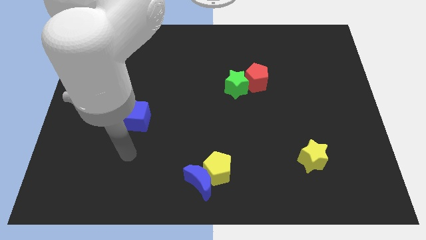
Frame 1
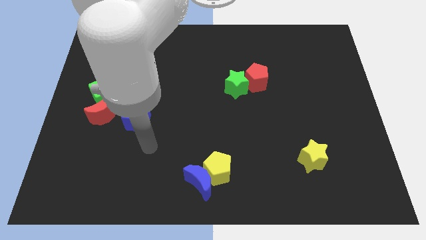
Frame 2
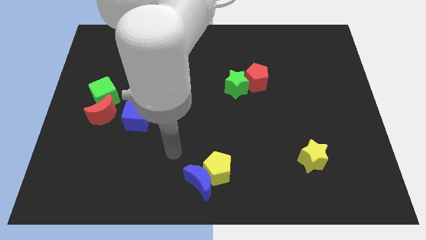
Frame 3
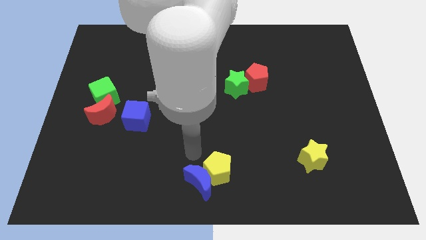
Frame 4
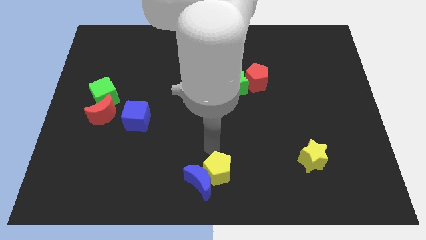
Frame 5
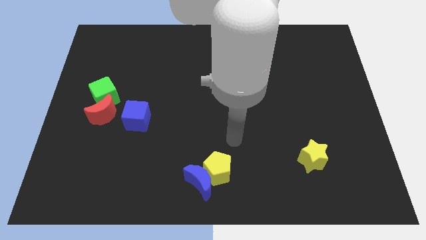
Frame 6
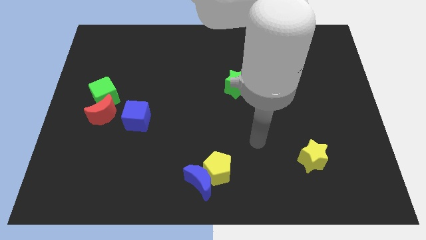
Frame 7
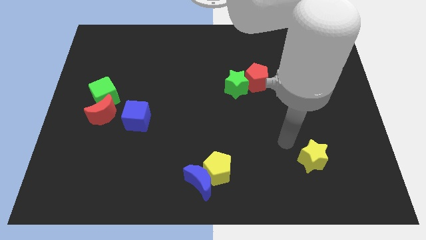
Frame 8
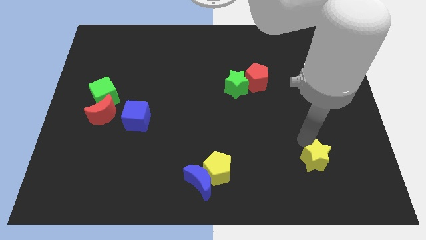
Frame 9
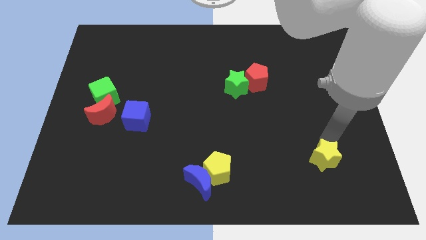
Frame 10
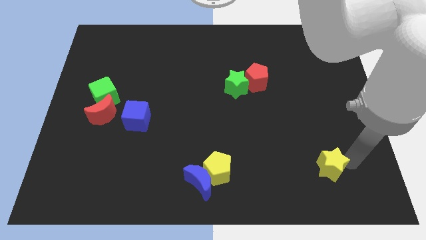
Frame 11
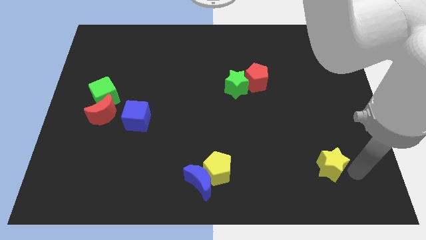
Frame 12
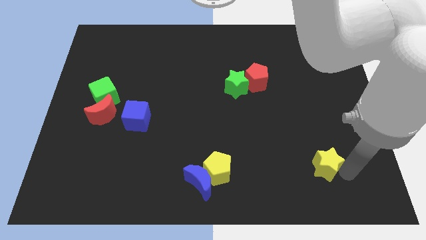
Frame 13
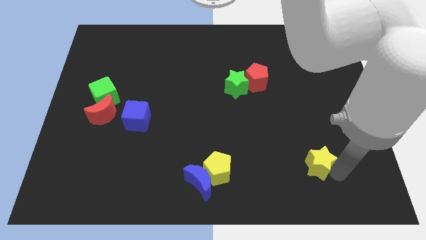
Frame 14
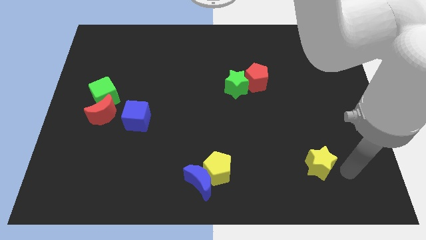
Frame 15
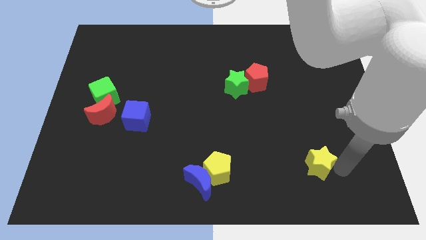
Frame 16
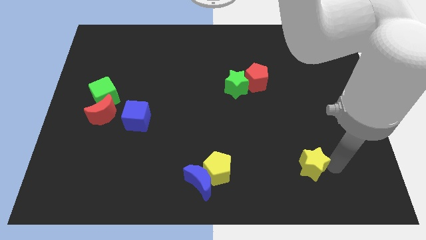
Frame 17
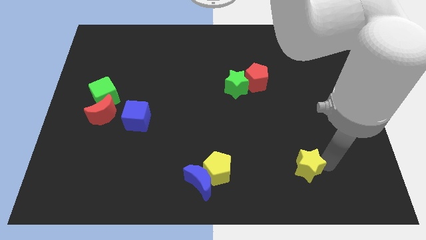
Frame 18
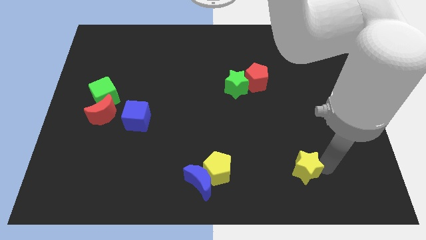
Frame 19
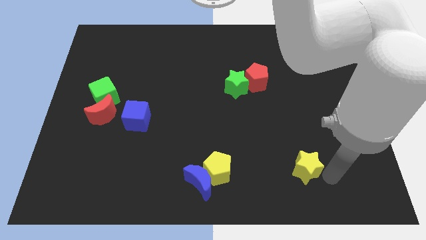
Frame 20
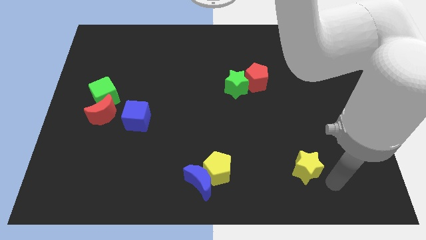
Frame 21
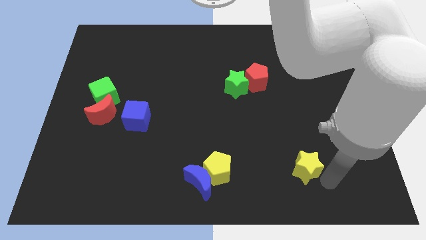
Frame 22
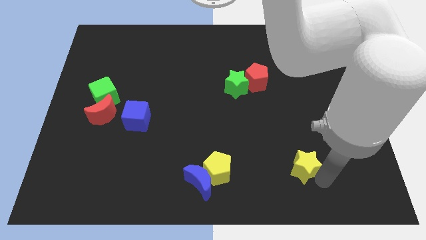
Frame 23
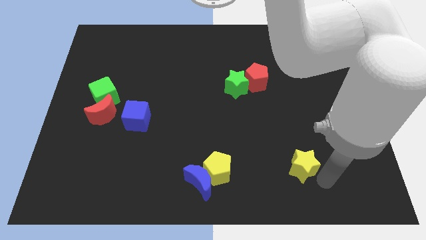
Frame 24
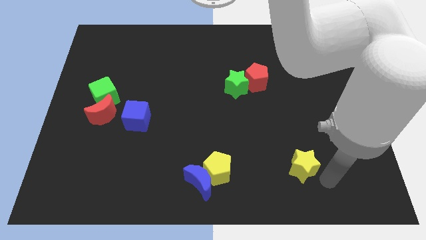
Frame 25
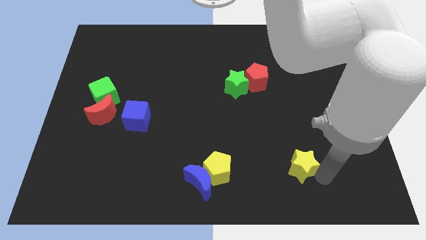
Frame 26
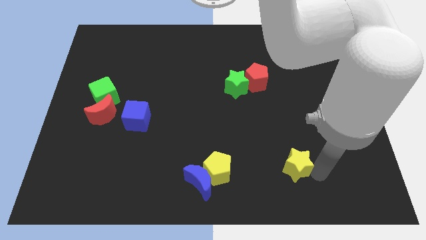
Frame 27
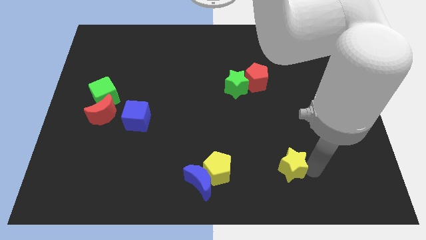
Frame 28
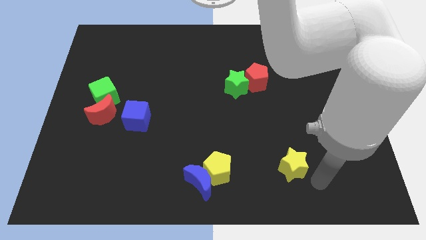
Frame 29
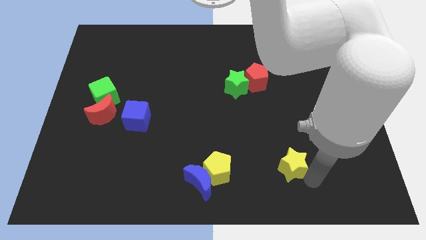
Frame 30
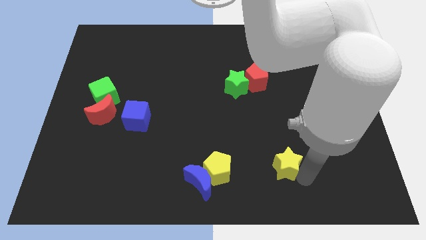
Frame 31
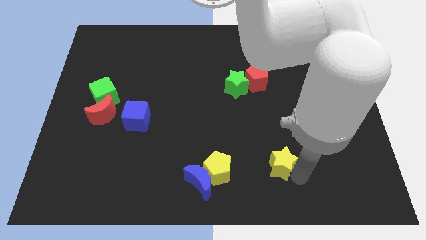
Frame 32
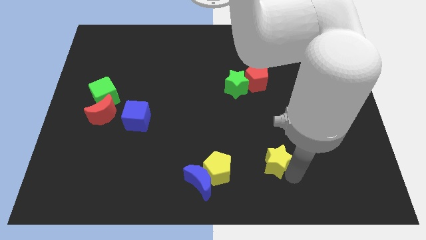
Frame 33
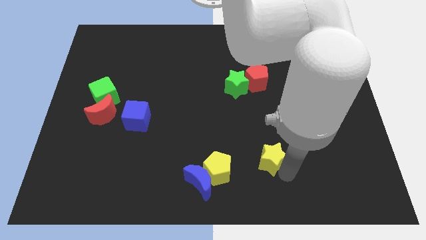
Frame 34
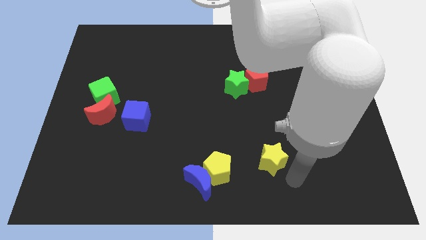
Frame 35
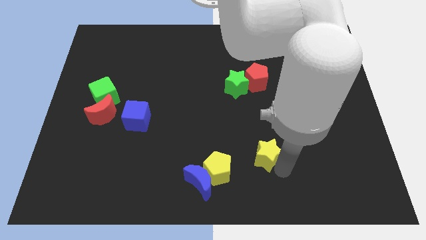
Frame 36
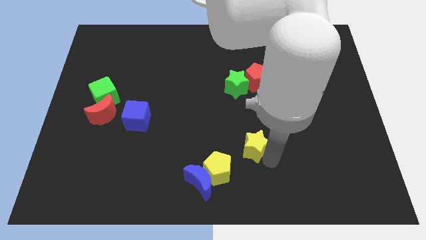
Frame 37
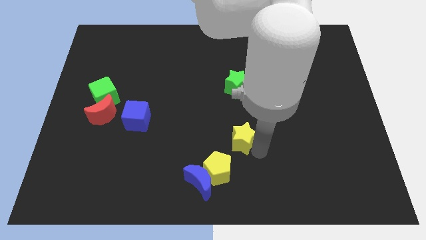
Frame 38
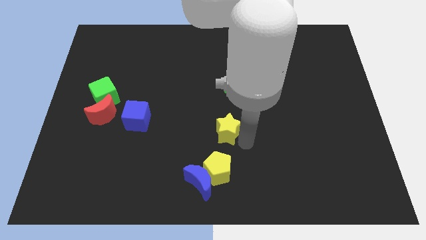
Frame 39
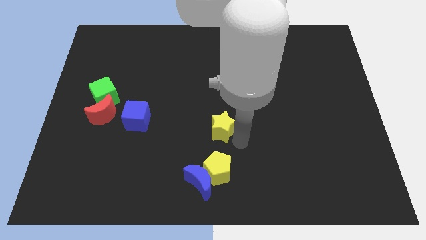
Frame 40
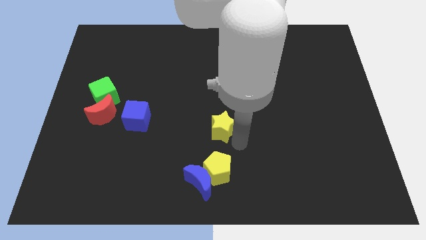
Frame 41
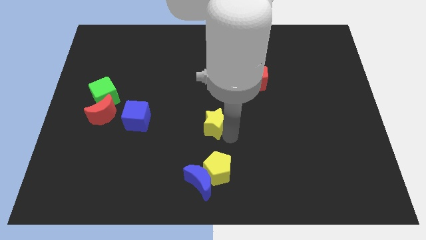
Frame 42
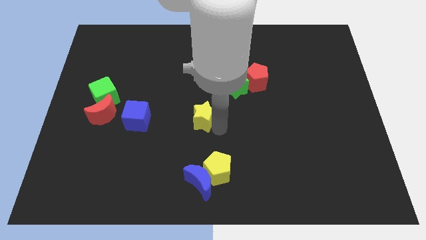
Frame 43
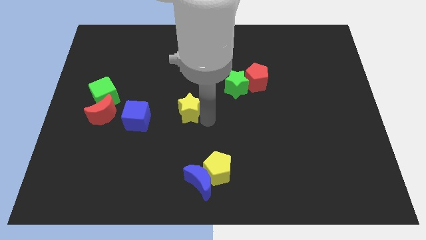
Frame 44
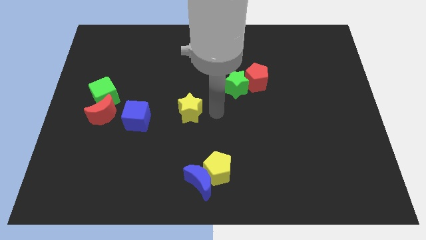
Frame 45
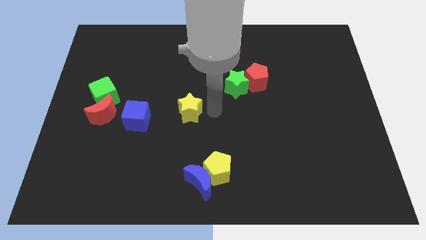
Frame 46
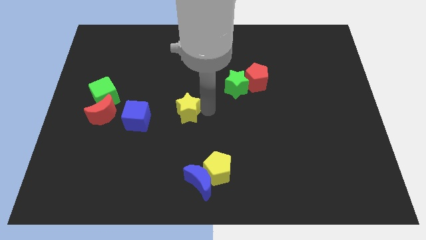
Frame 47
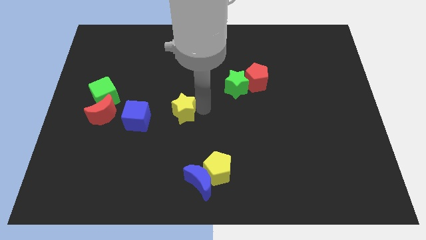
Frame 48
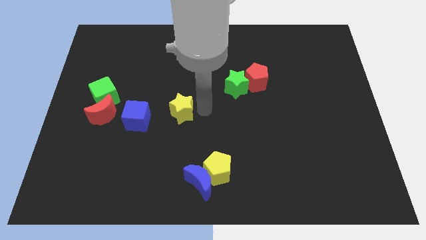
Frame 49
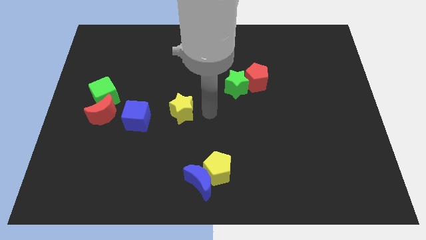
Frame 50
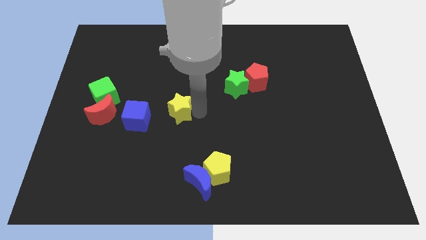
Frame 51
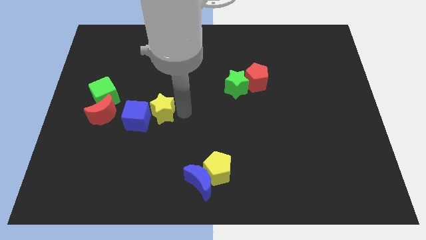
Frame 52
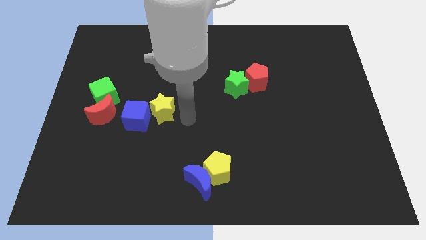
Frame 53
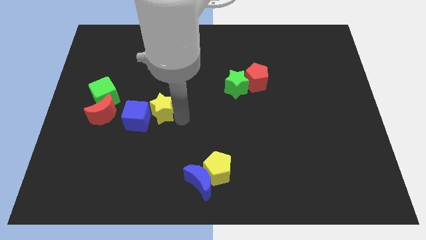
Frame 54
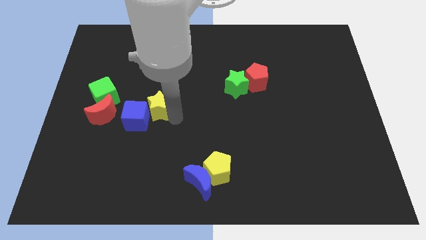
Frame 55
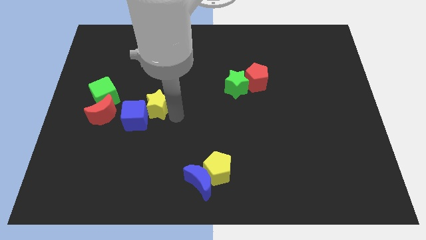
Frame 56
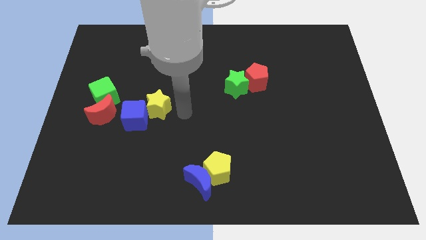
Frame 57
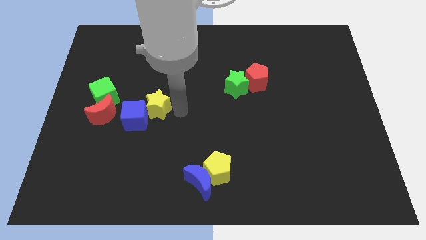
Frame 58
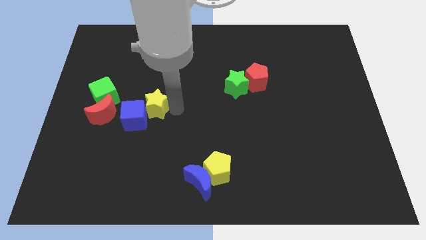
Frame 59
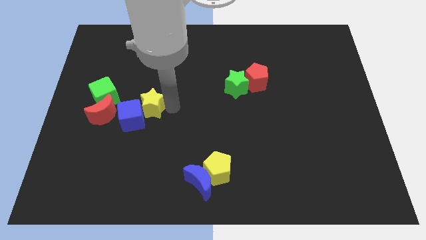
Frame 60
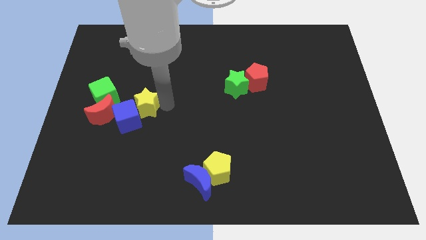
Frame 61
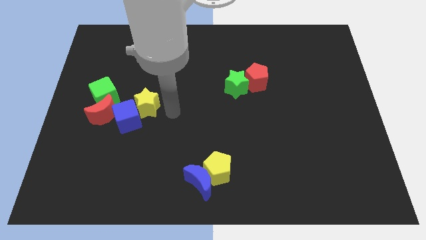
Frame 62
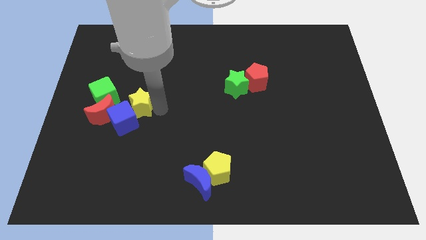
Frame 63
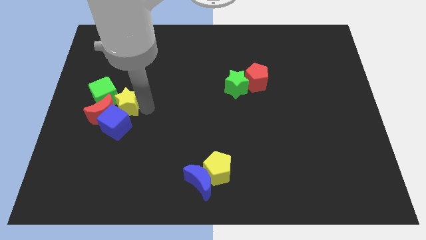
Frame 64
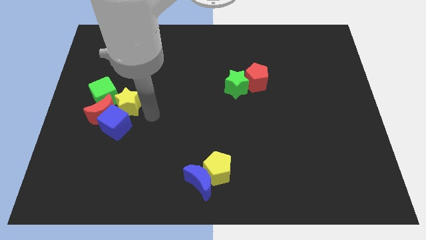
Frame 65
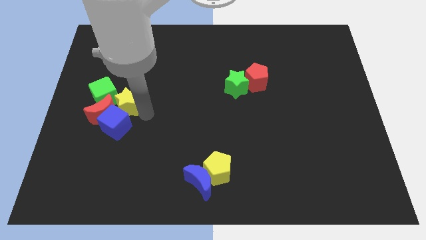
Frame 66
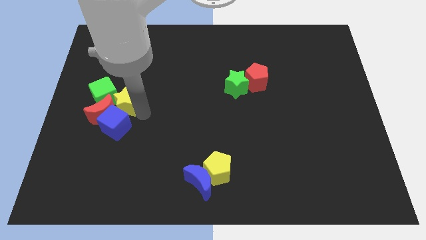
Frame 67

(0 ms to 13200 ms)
put the yellow star next to the green cube
